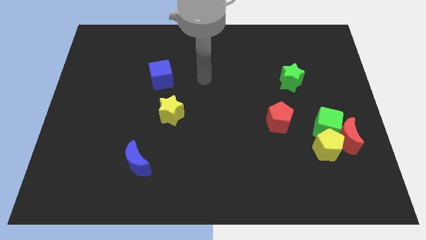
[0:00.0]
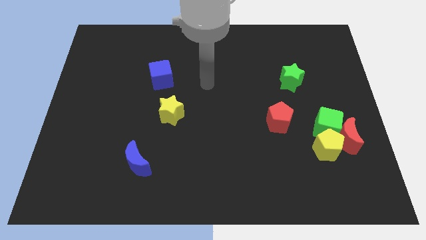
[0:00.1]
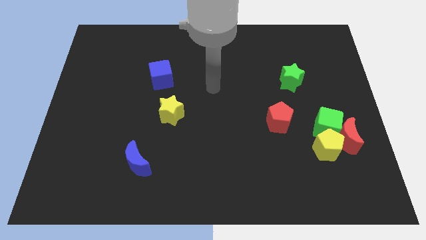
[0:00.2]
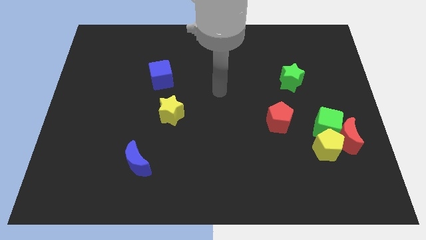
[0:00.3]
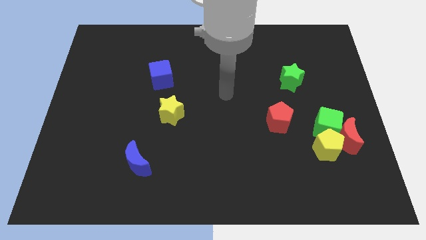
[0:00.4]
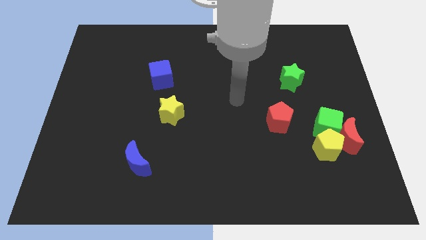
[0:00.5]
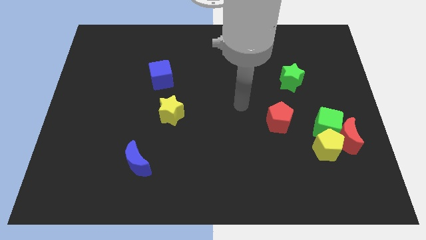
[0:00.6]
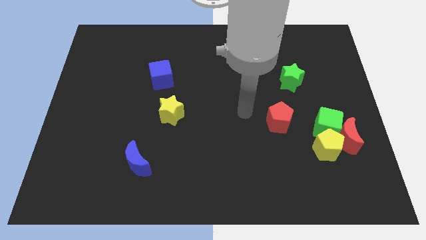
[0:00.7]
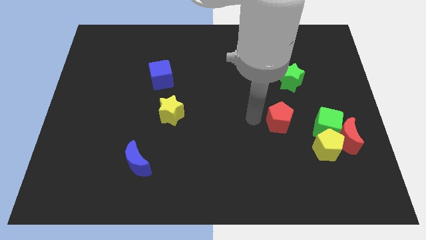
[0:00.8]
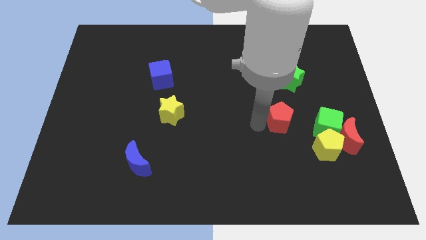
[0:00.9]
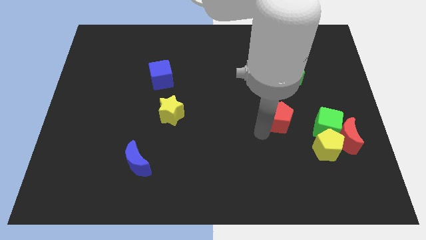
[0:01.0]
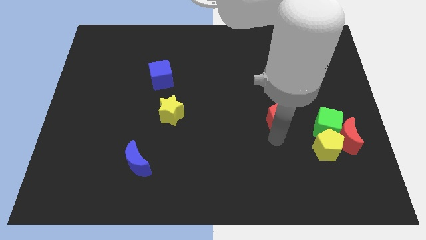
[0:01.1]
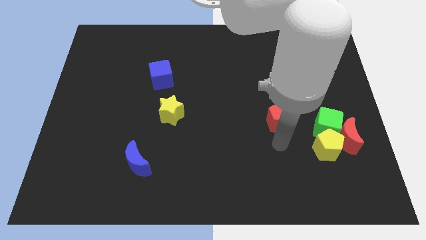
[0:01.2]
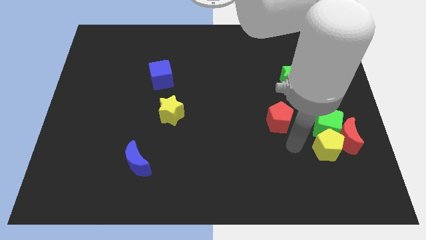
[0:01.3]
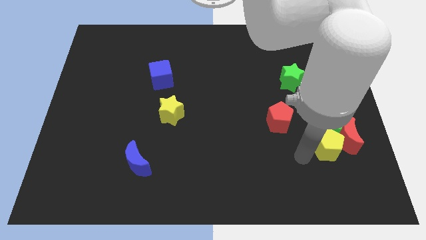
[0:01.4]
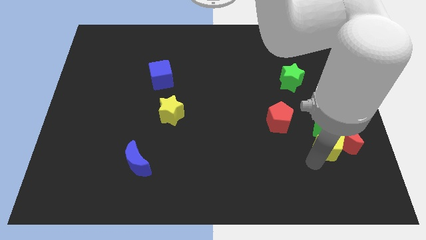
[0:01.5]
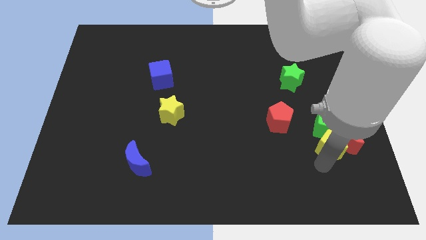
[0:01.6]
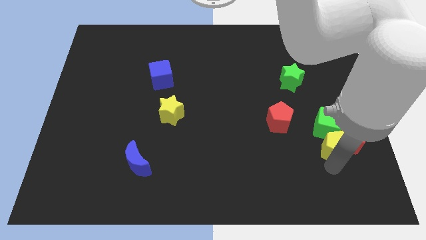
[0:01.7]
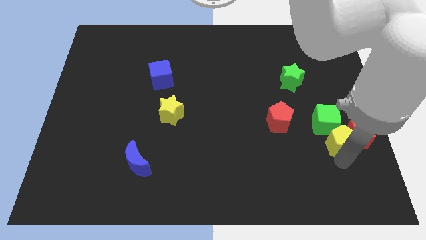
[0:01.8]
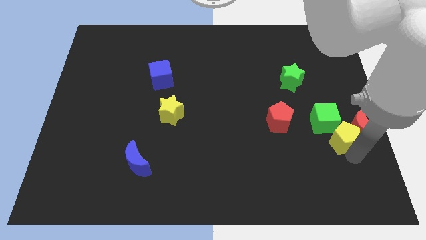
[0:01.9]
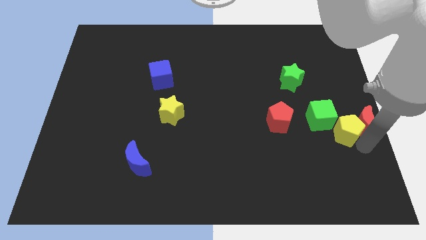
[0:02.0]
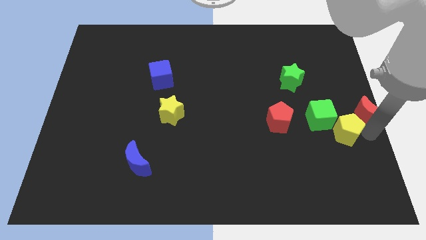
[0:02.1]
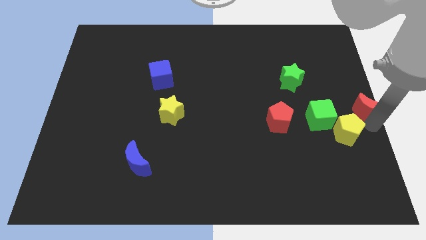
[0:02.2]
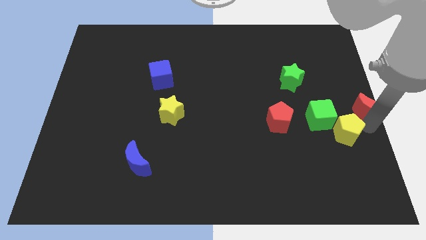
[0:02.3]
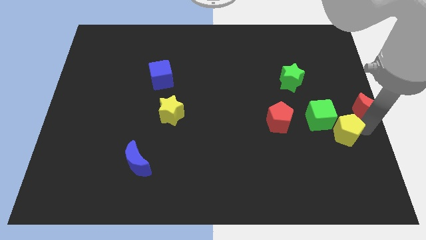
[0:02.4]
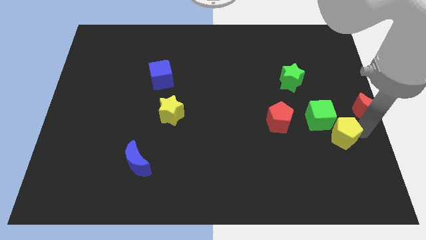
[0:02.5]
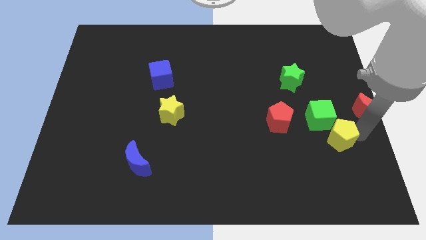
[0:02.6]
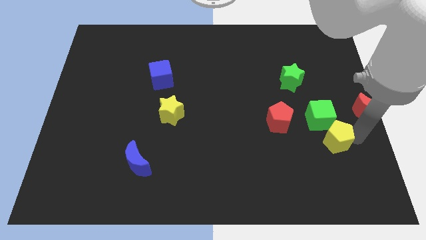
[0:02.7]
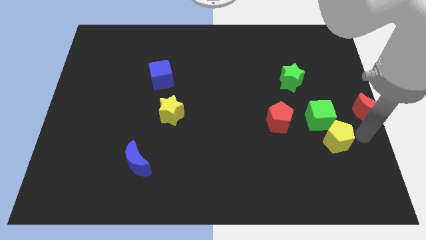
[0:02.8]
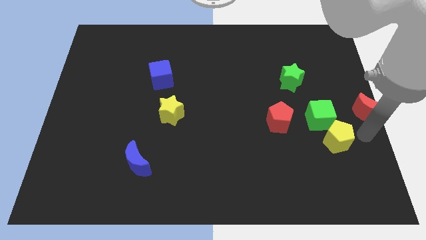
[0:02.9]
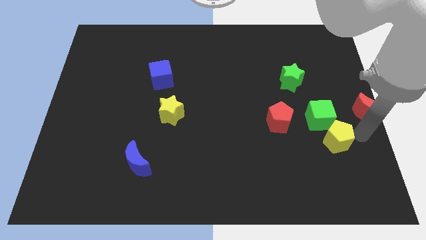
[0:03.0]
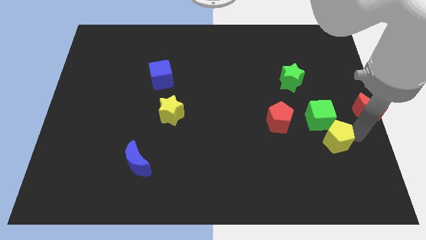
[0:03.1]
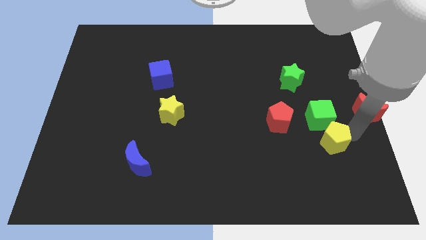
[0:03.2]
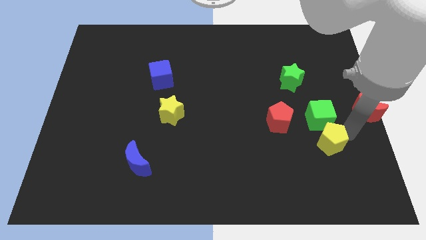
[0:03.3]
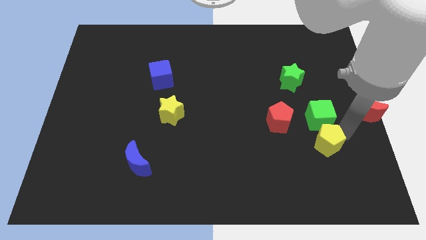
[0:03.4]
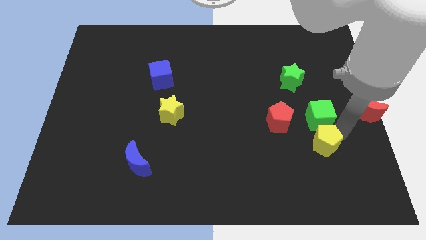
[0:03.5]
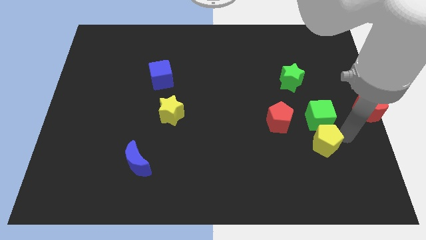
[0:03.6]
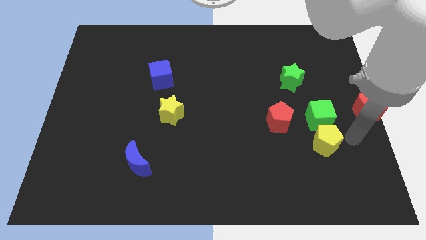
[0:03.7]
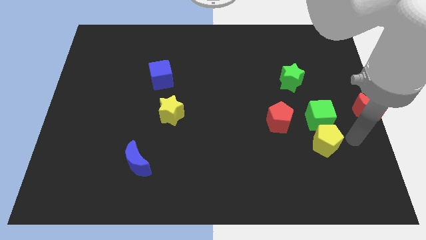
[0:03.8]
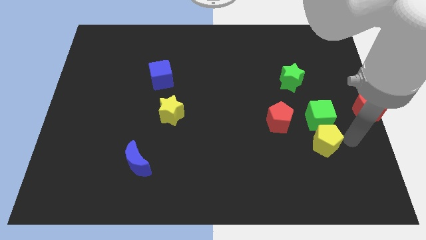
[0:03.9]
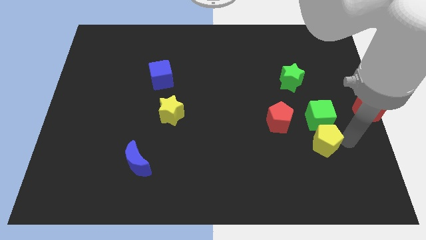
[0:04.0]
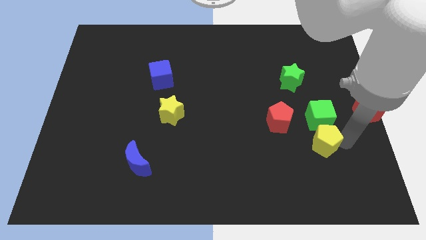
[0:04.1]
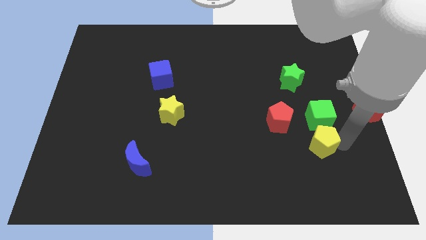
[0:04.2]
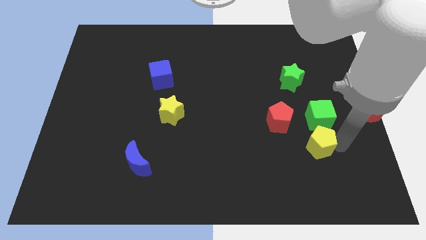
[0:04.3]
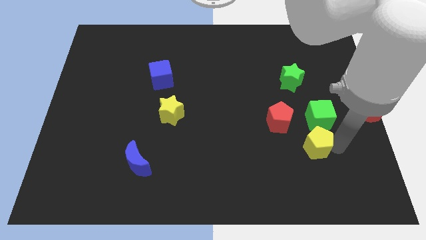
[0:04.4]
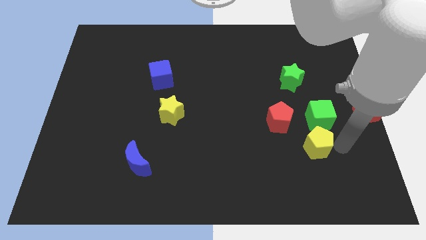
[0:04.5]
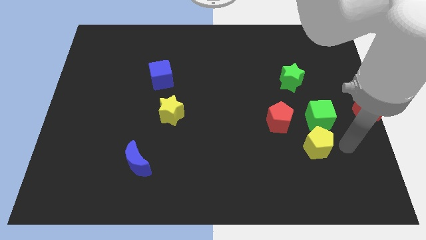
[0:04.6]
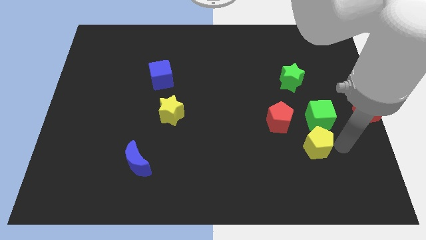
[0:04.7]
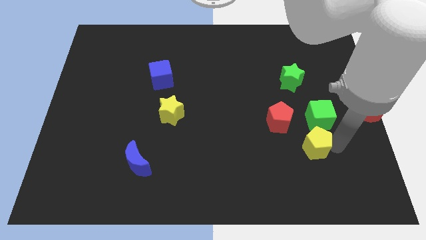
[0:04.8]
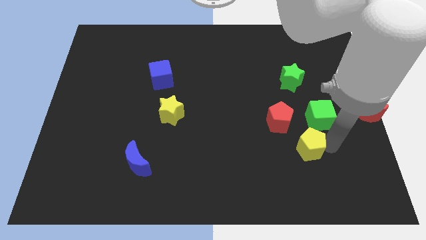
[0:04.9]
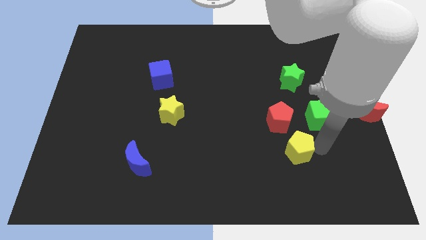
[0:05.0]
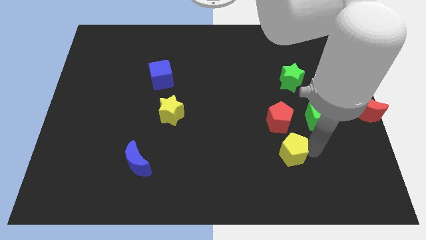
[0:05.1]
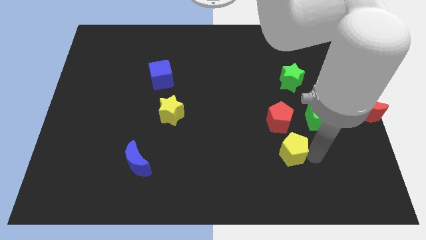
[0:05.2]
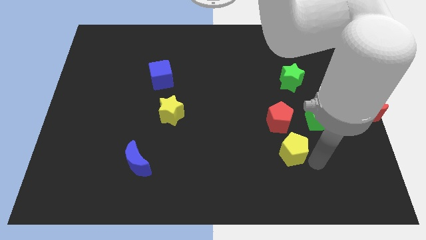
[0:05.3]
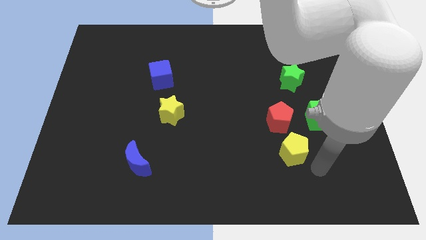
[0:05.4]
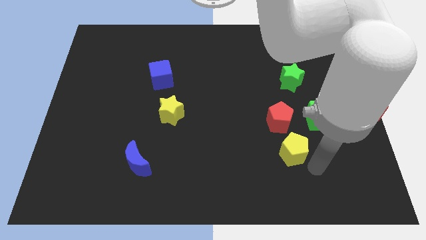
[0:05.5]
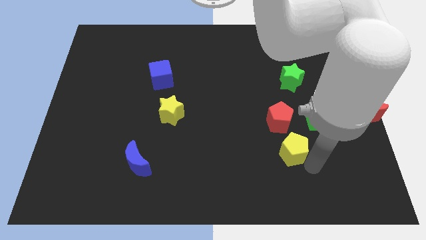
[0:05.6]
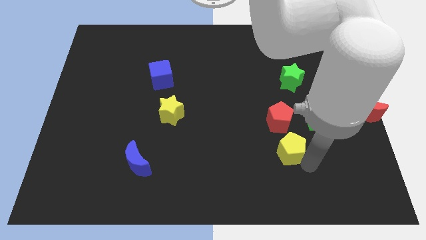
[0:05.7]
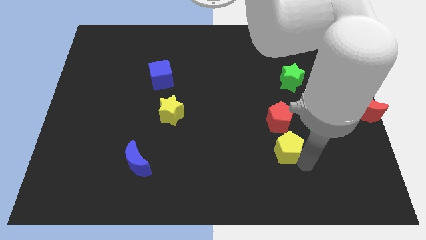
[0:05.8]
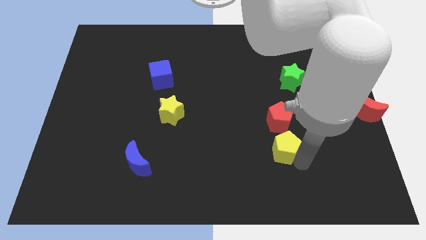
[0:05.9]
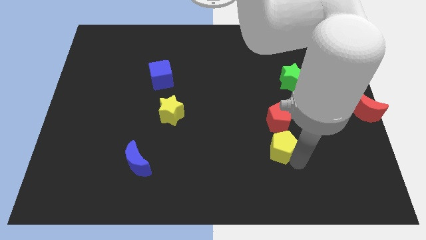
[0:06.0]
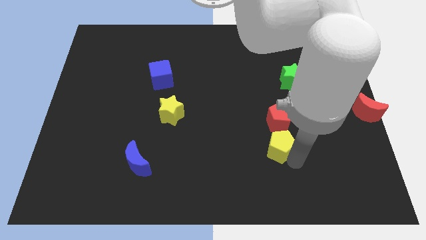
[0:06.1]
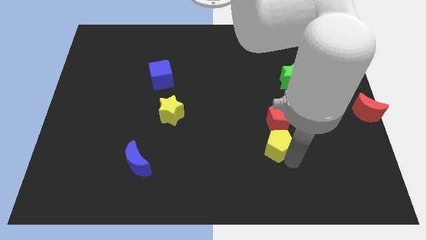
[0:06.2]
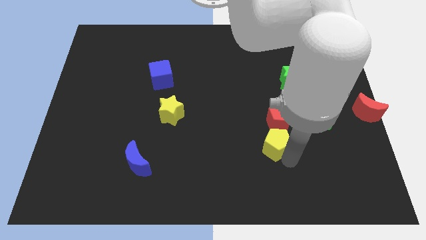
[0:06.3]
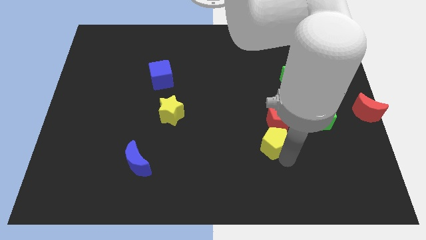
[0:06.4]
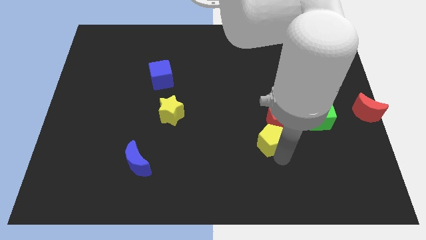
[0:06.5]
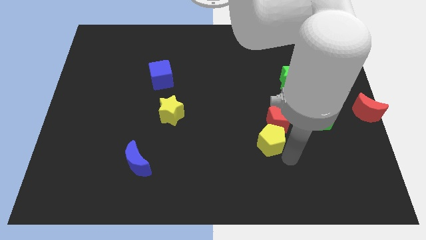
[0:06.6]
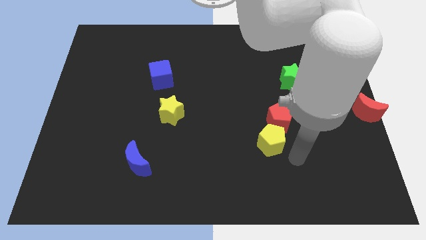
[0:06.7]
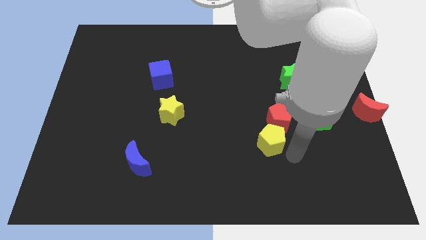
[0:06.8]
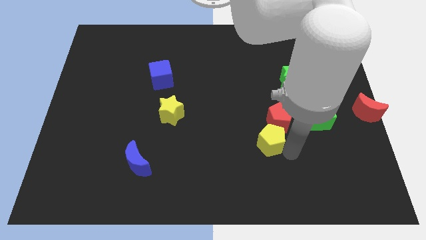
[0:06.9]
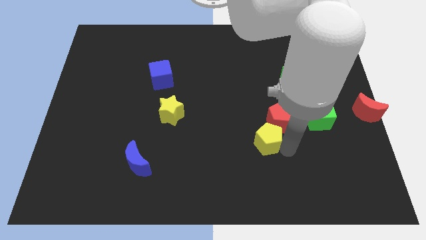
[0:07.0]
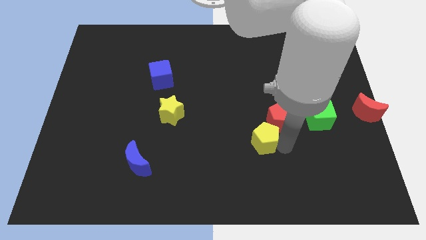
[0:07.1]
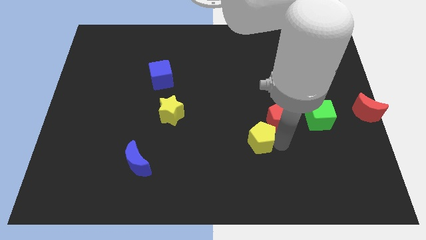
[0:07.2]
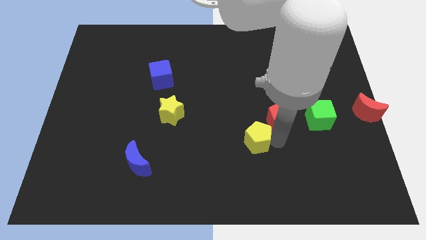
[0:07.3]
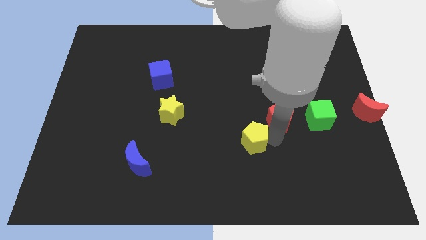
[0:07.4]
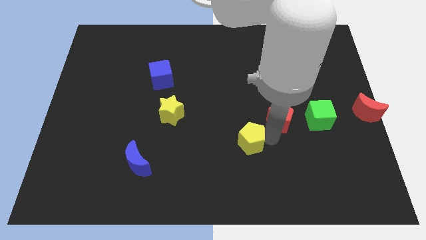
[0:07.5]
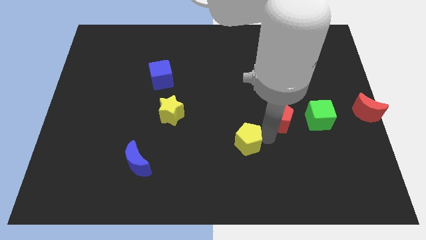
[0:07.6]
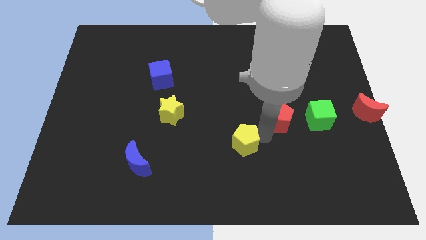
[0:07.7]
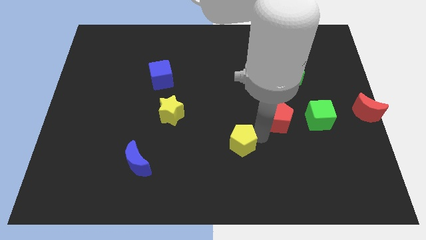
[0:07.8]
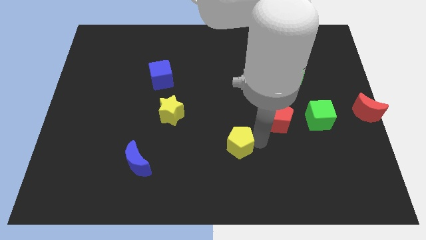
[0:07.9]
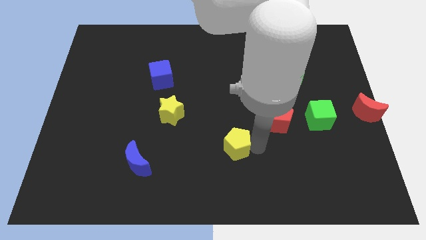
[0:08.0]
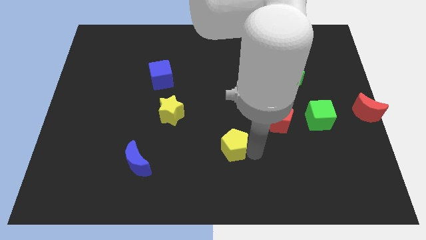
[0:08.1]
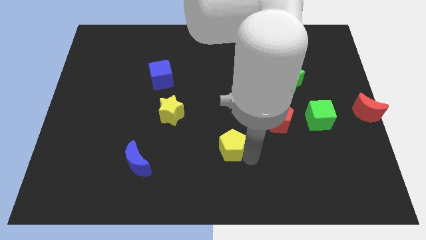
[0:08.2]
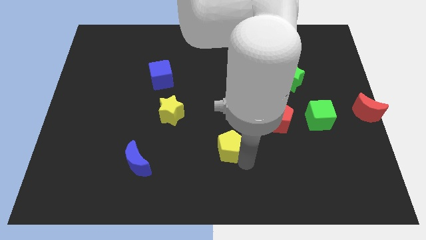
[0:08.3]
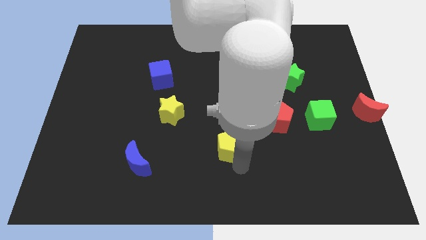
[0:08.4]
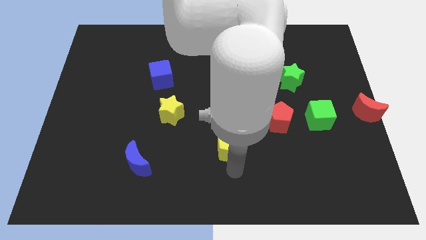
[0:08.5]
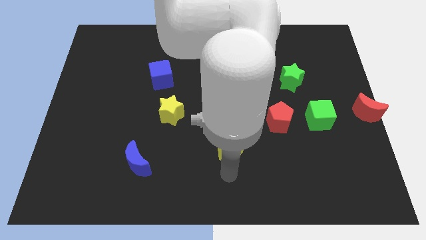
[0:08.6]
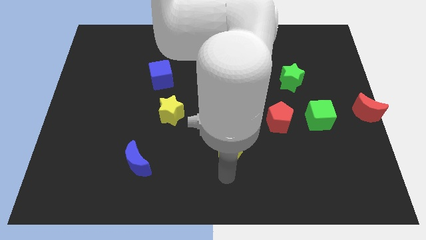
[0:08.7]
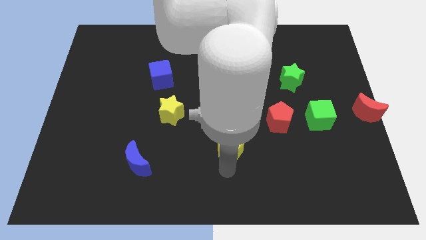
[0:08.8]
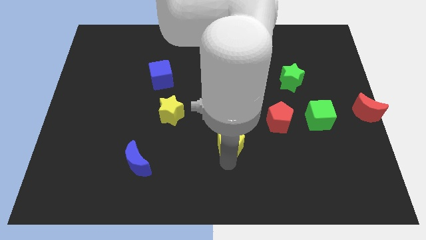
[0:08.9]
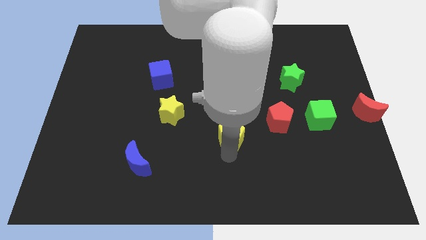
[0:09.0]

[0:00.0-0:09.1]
move the yellow pentagon to the left side of the red pentagon
